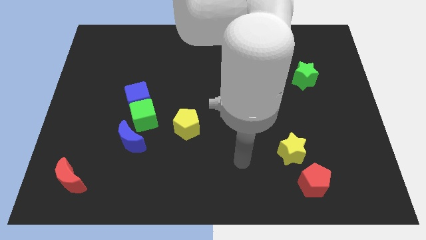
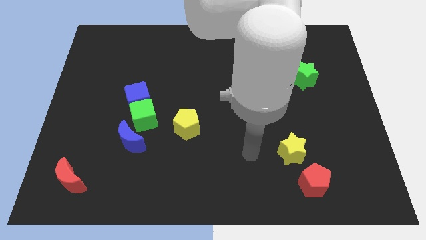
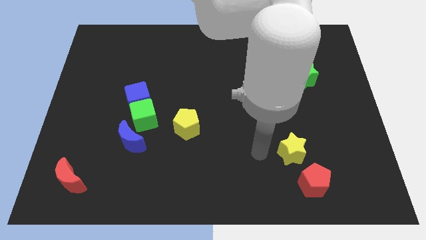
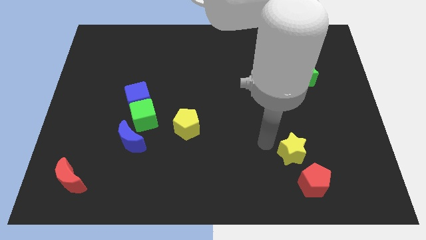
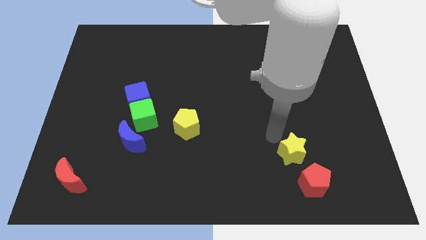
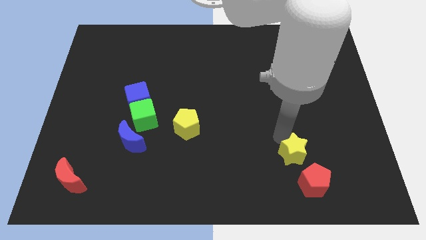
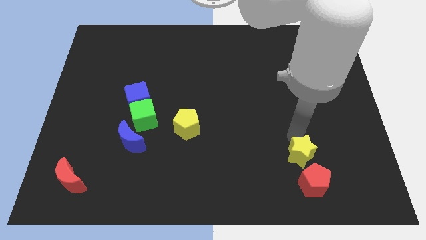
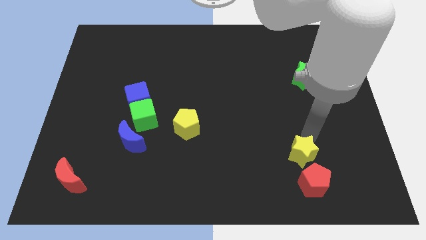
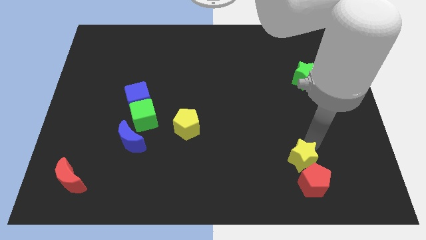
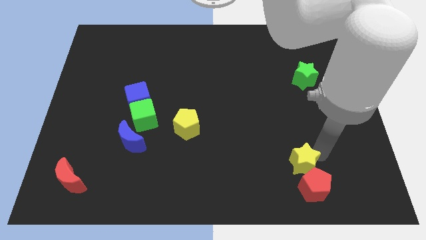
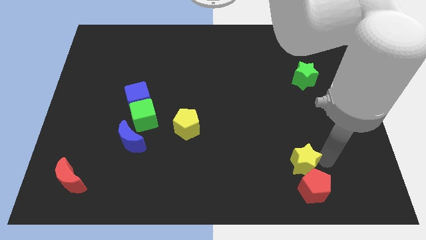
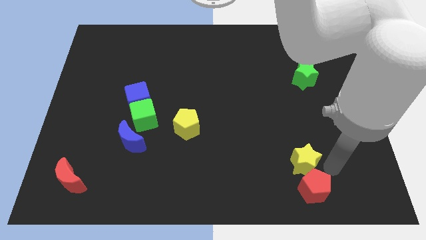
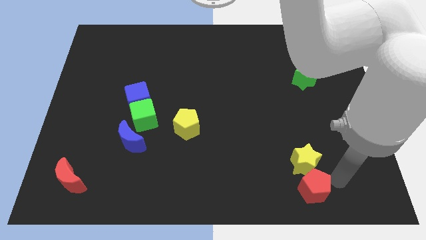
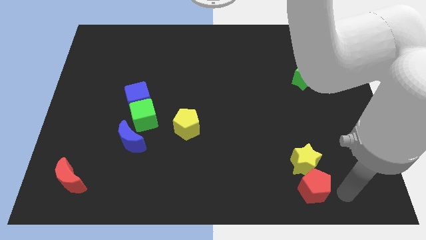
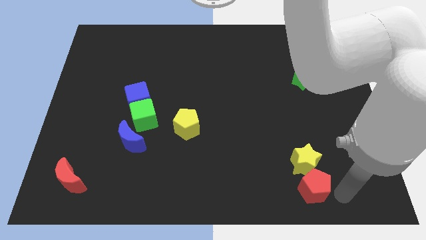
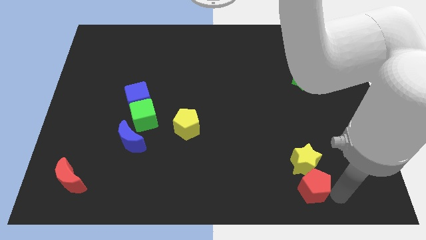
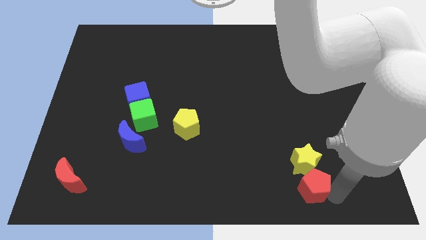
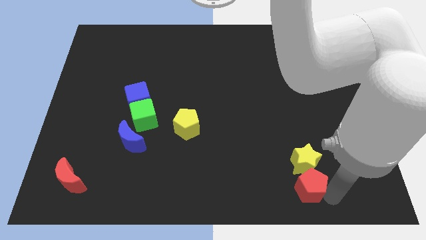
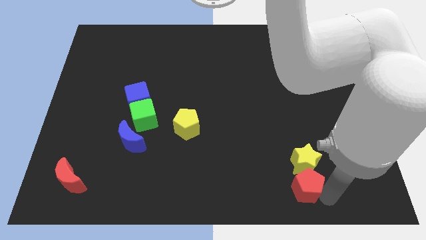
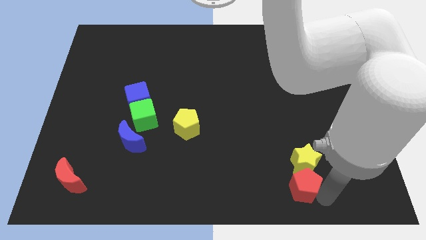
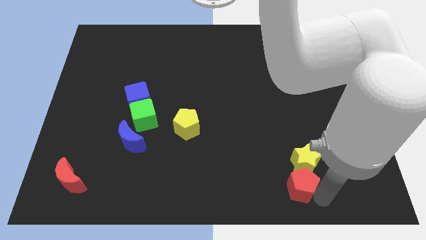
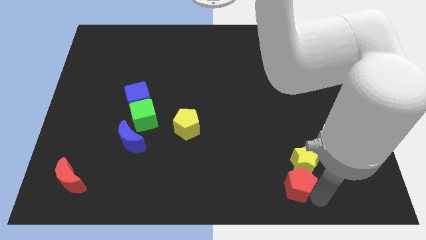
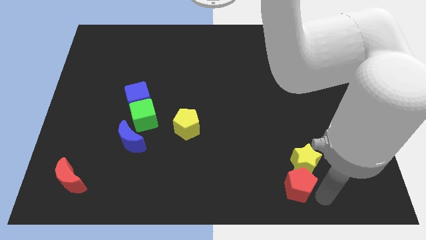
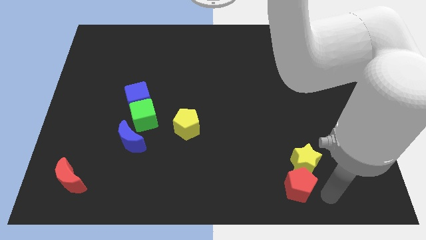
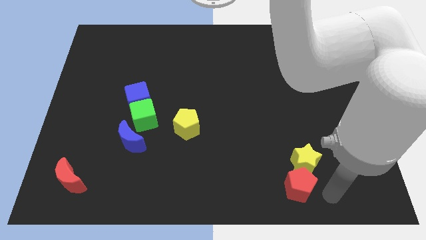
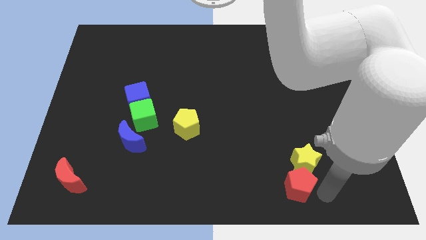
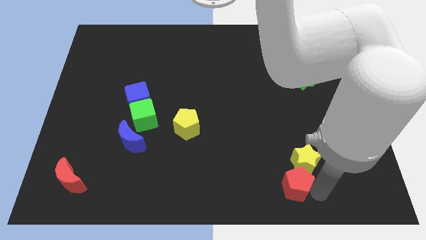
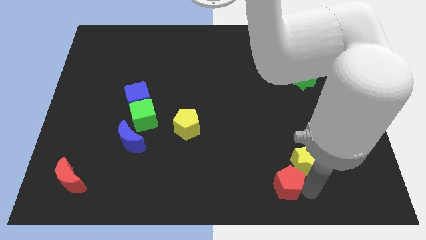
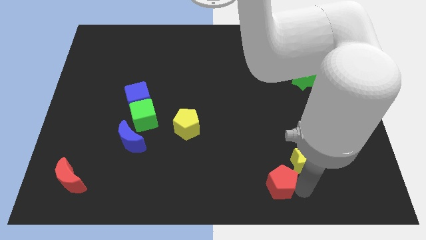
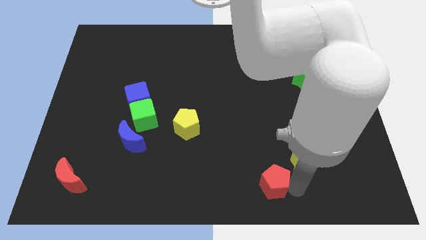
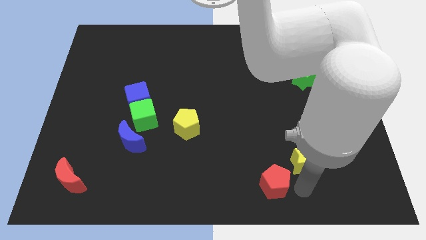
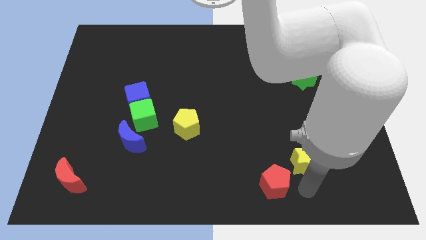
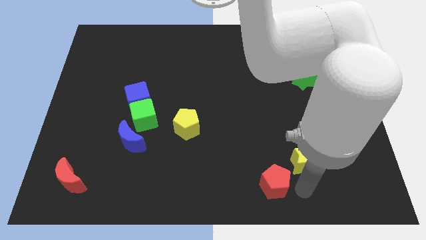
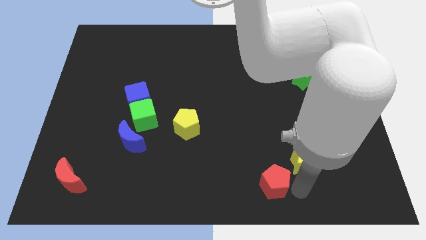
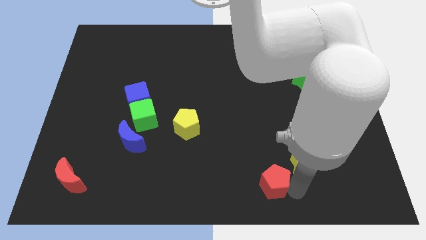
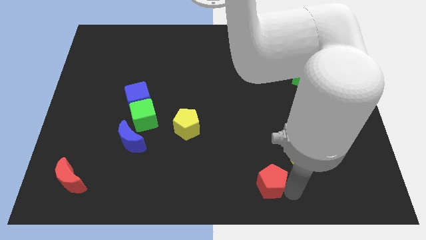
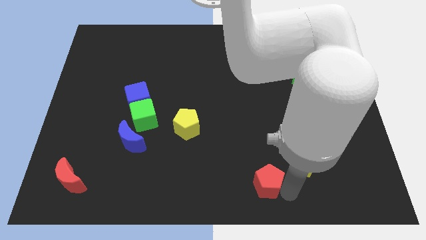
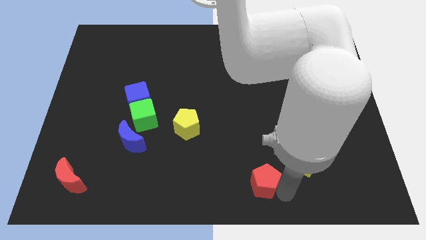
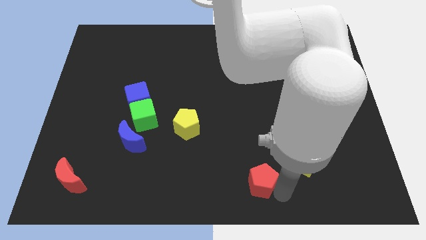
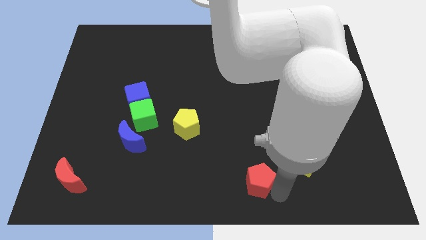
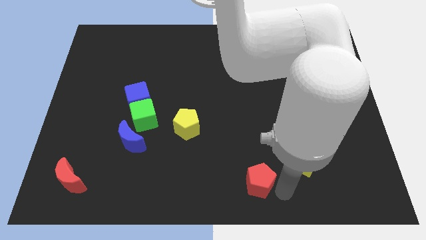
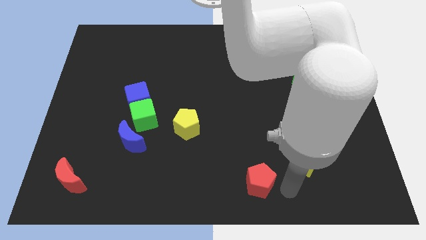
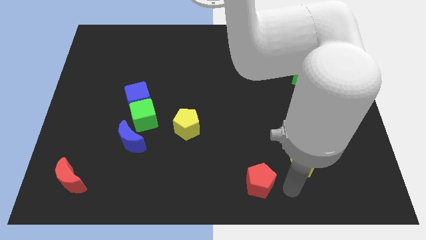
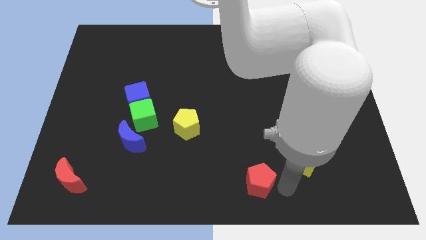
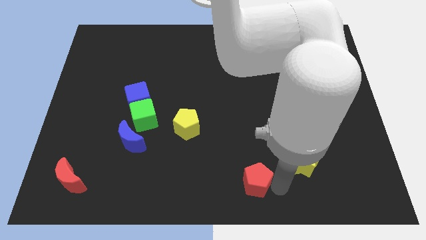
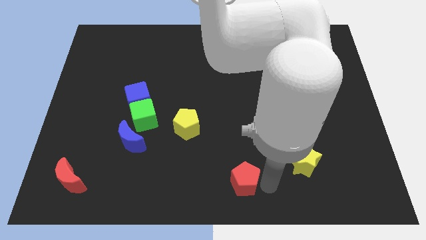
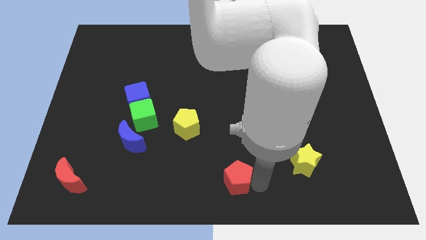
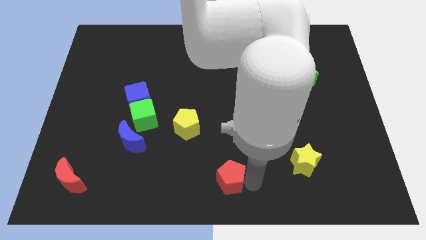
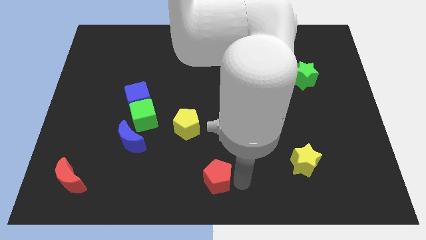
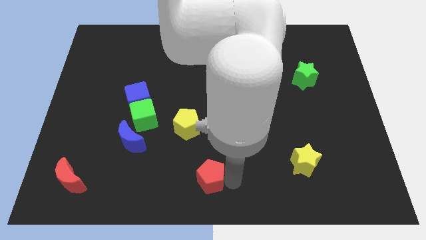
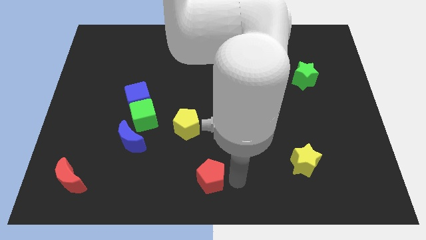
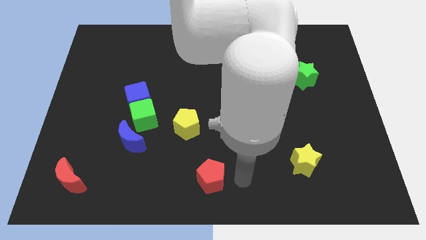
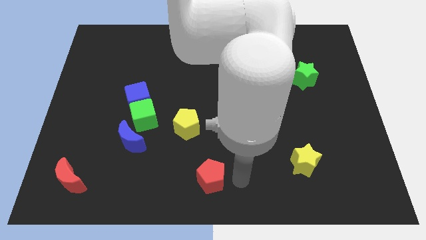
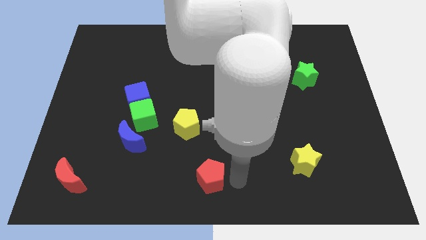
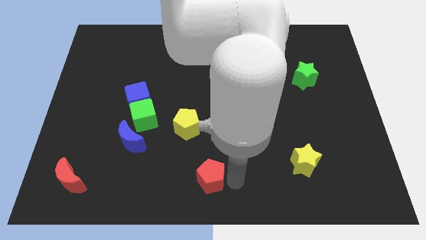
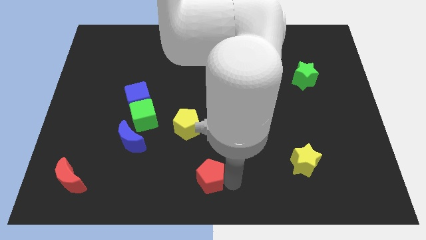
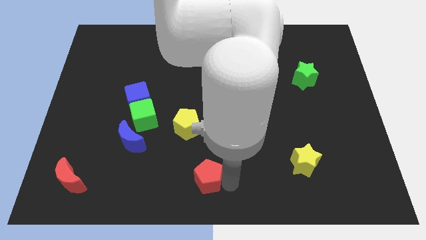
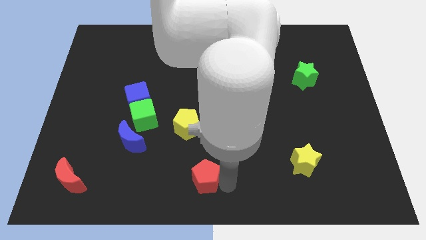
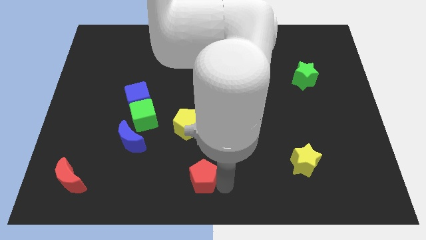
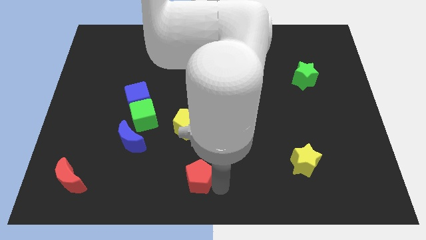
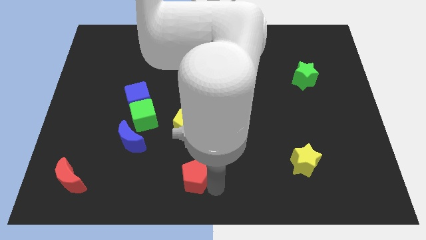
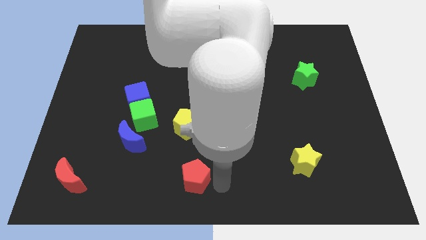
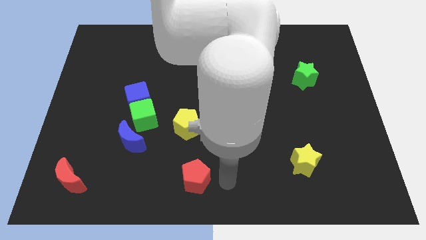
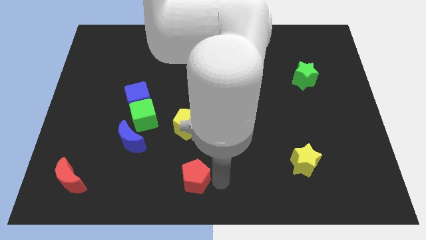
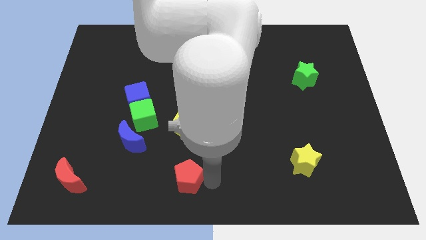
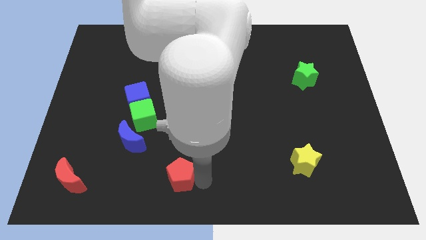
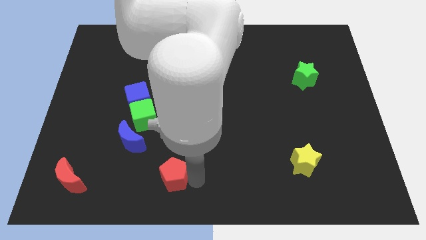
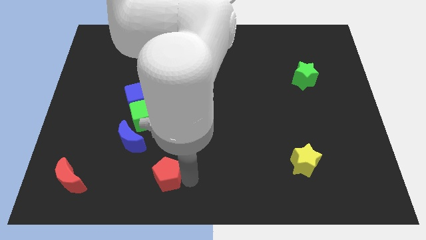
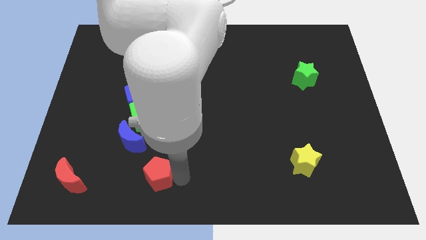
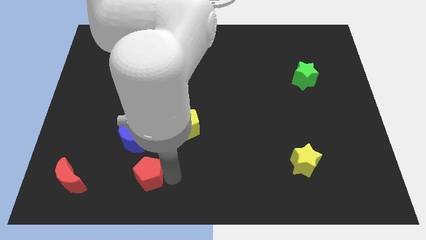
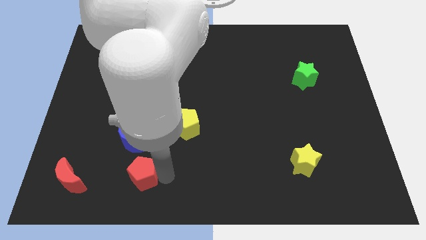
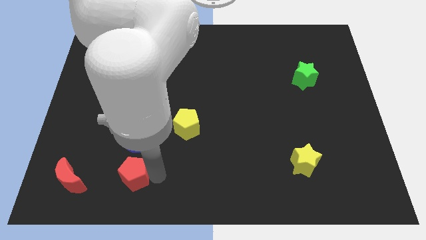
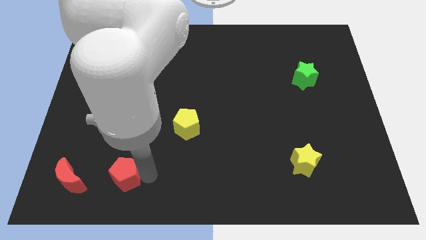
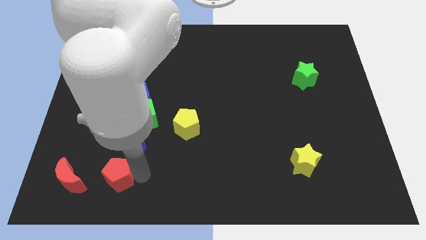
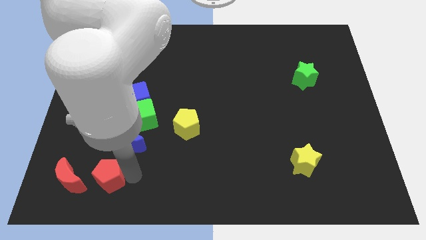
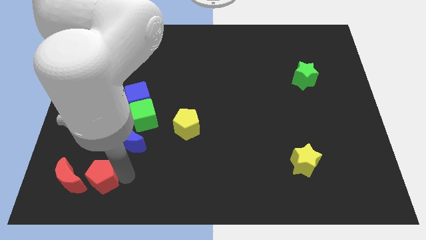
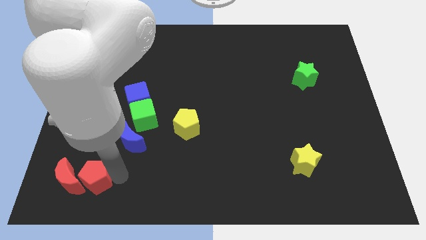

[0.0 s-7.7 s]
put the red pentagon to the red moon
